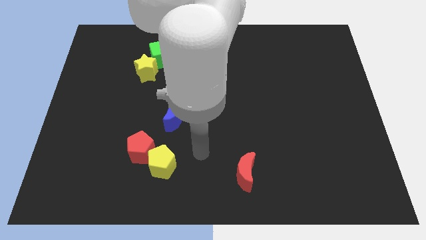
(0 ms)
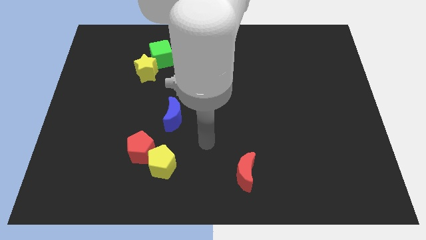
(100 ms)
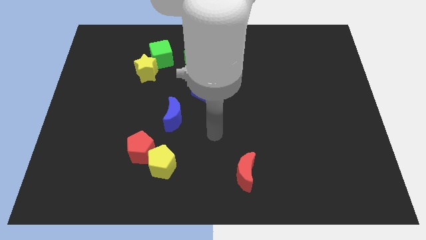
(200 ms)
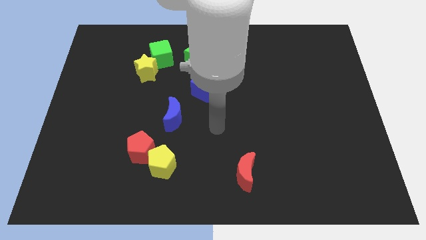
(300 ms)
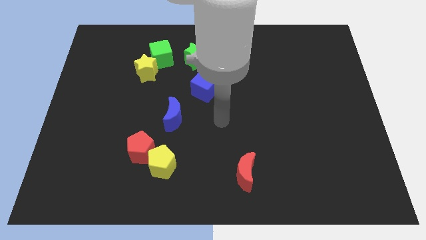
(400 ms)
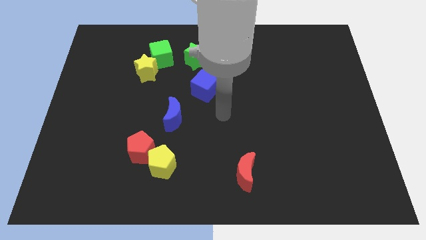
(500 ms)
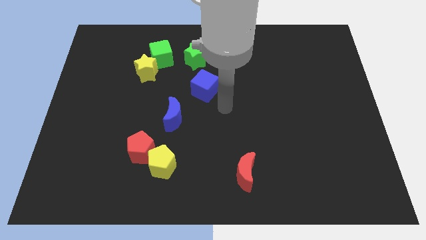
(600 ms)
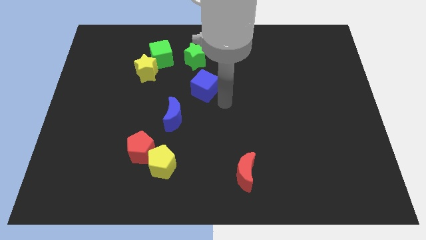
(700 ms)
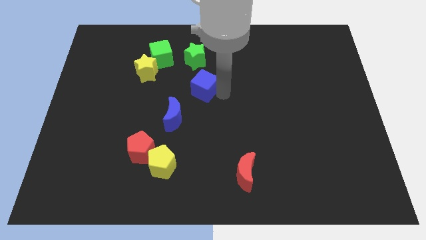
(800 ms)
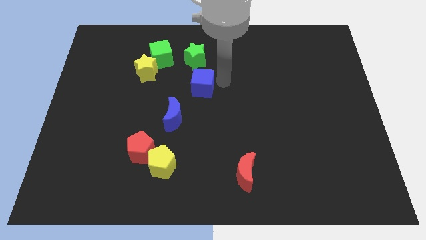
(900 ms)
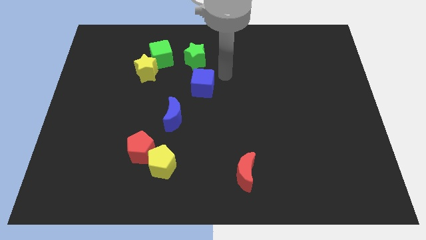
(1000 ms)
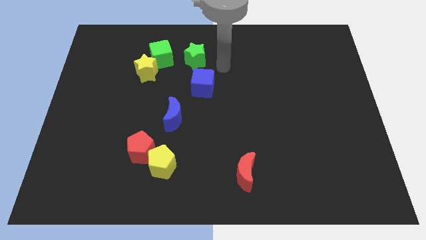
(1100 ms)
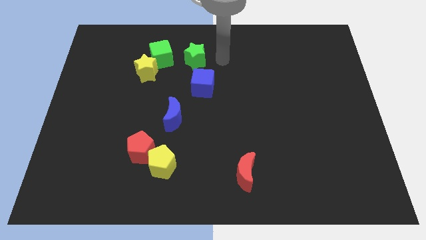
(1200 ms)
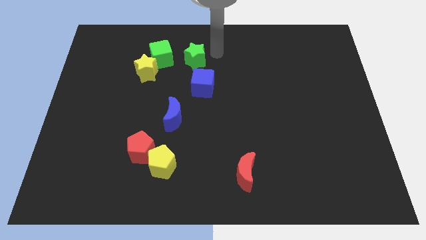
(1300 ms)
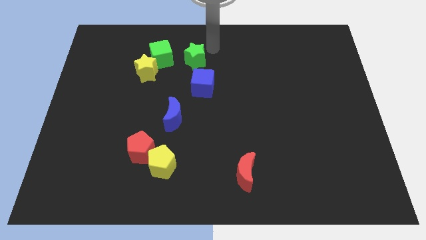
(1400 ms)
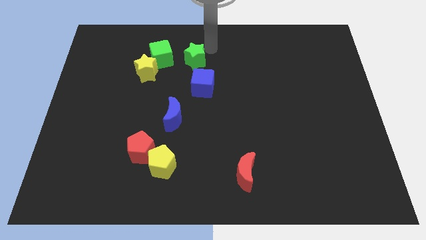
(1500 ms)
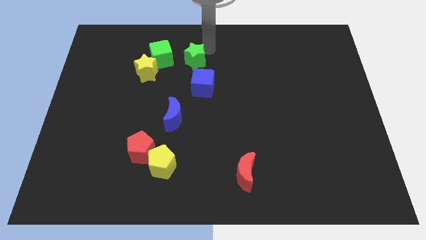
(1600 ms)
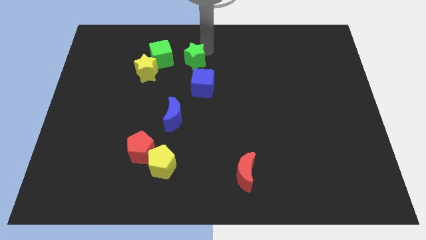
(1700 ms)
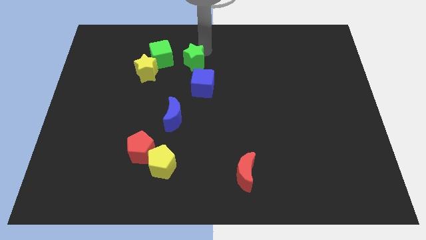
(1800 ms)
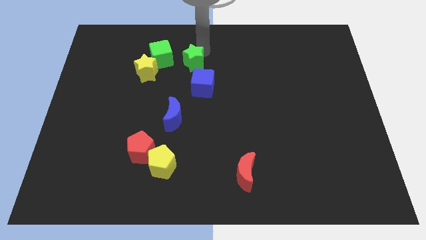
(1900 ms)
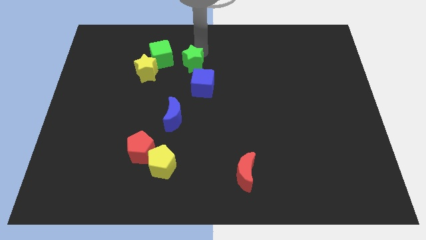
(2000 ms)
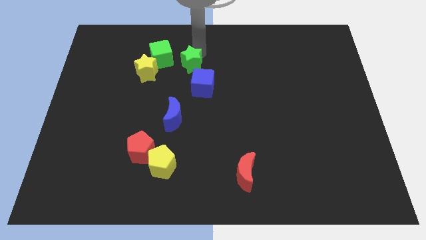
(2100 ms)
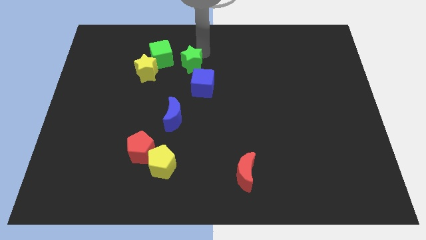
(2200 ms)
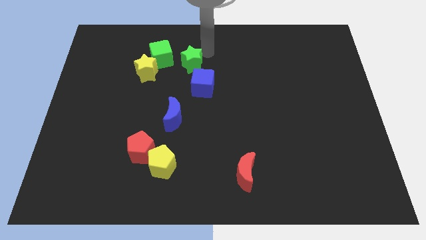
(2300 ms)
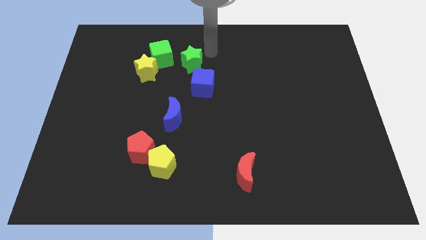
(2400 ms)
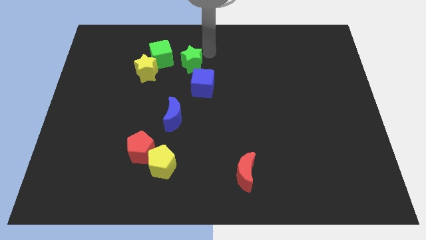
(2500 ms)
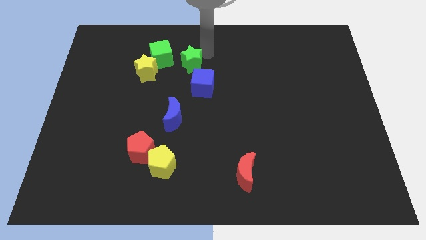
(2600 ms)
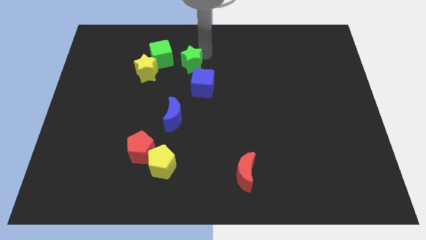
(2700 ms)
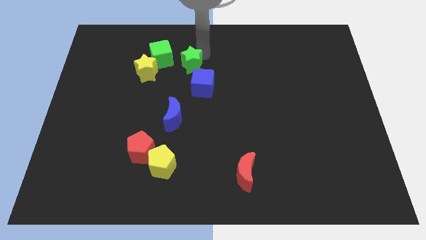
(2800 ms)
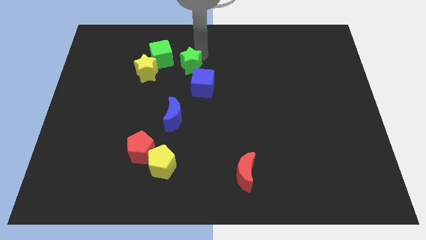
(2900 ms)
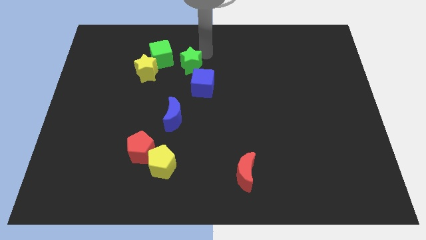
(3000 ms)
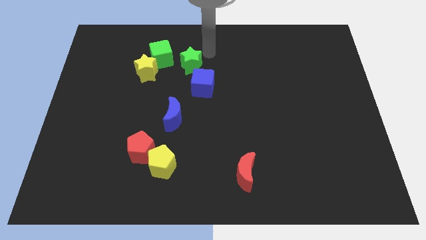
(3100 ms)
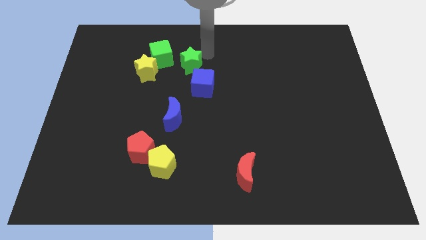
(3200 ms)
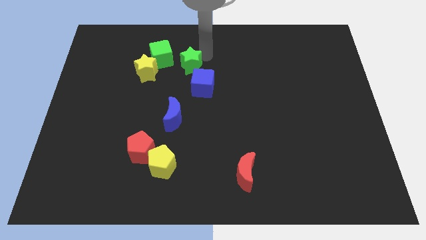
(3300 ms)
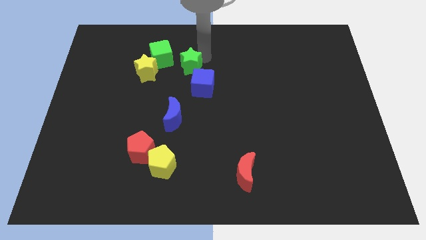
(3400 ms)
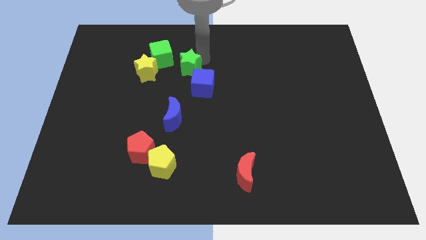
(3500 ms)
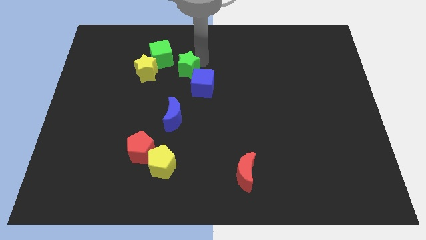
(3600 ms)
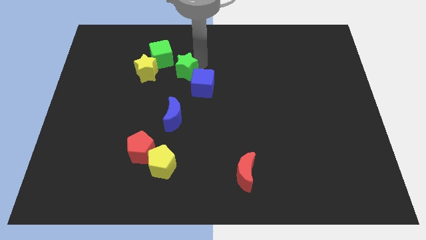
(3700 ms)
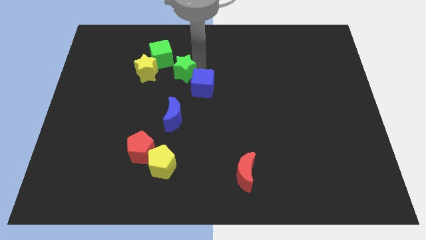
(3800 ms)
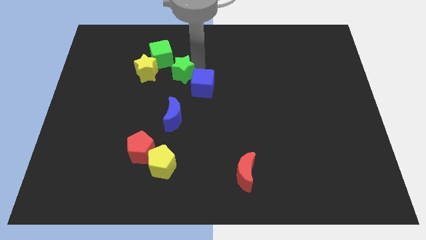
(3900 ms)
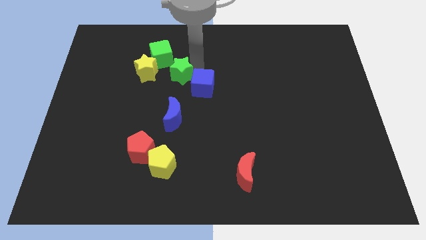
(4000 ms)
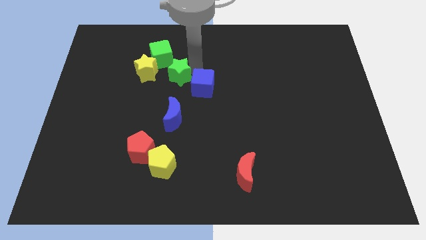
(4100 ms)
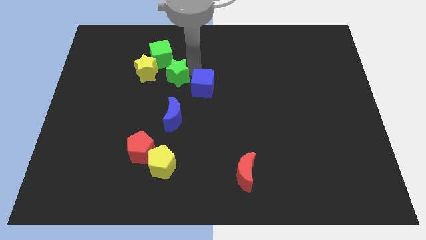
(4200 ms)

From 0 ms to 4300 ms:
slightly push the green star down and then to the left

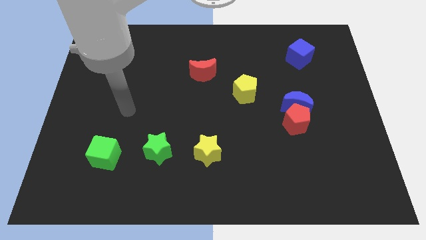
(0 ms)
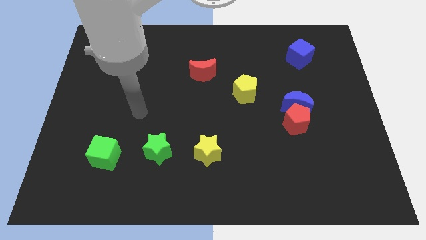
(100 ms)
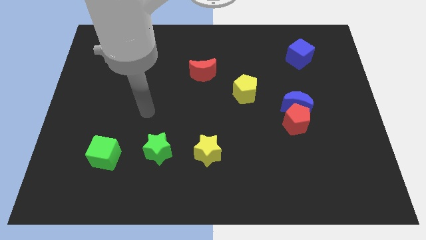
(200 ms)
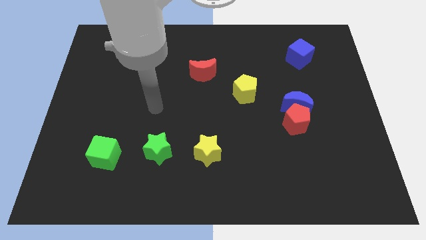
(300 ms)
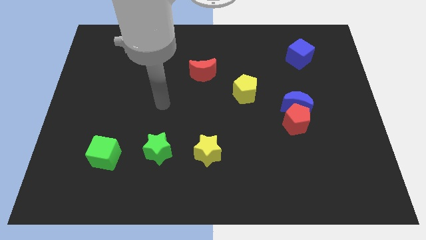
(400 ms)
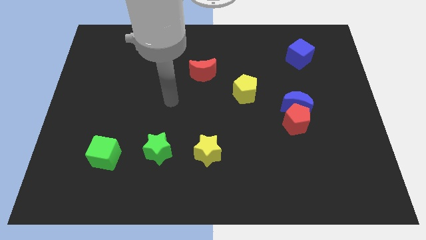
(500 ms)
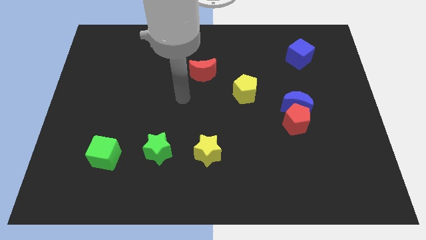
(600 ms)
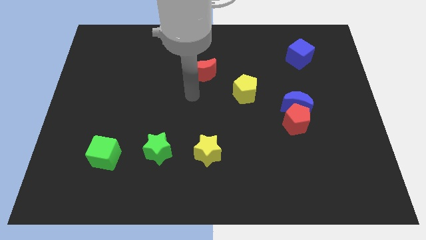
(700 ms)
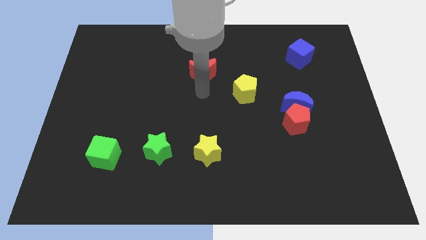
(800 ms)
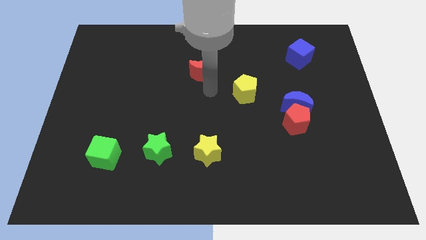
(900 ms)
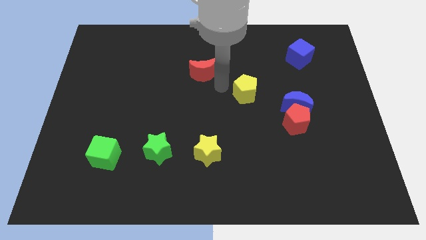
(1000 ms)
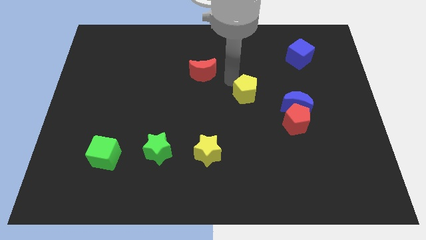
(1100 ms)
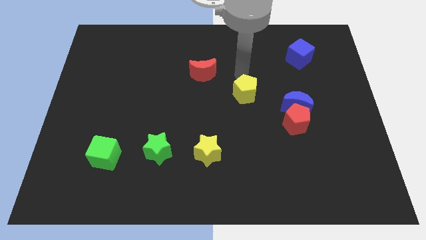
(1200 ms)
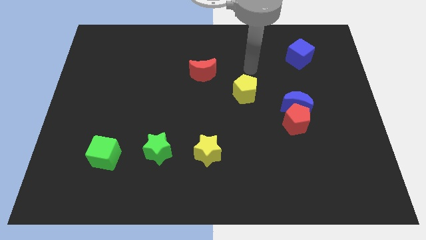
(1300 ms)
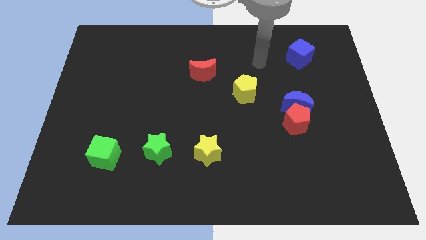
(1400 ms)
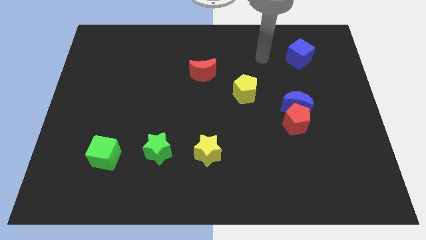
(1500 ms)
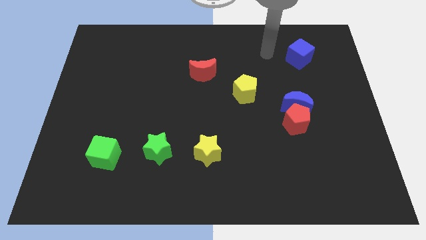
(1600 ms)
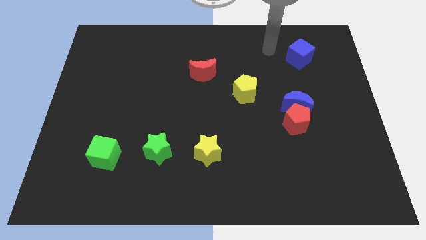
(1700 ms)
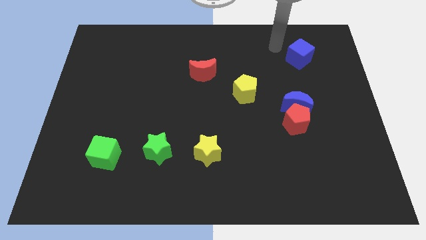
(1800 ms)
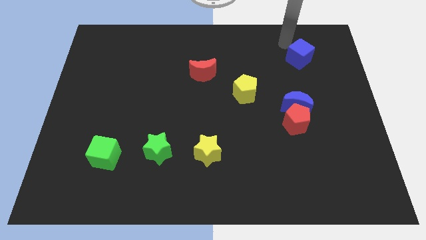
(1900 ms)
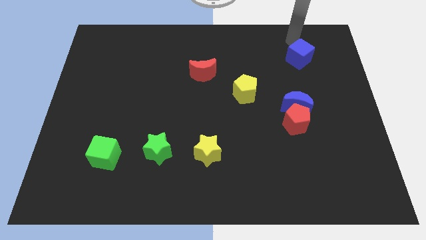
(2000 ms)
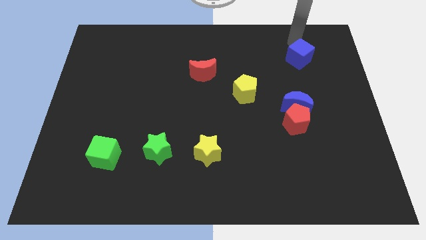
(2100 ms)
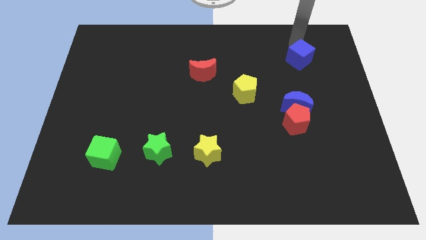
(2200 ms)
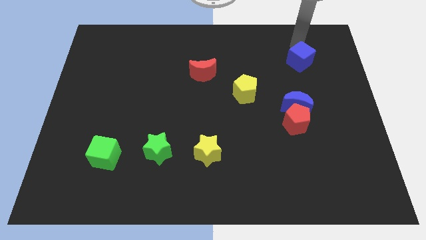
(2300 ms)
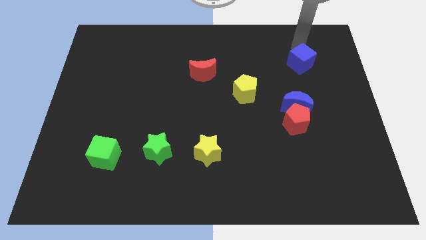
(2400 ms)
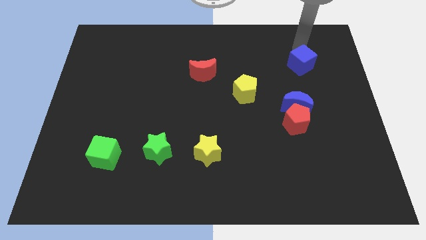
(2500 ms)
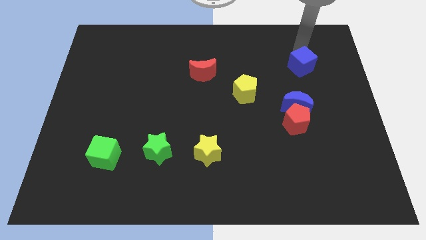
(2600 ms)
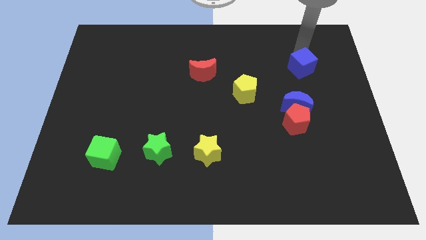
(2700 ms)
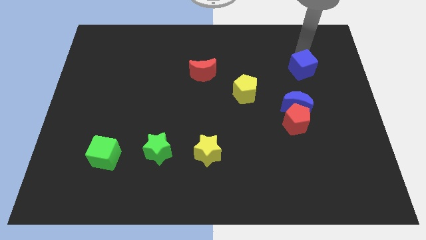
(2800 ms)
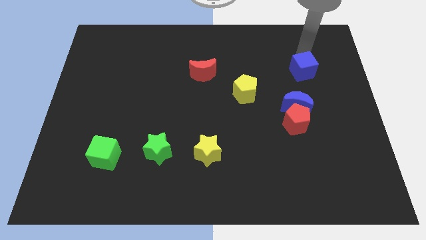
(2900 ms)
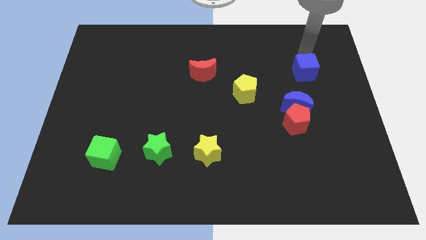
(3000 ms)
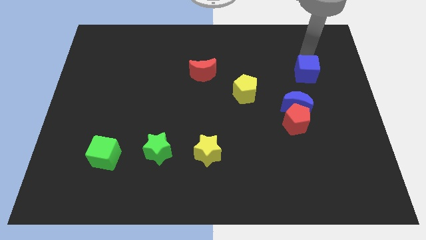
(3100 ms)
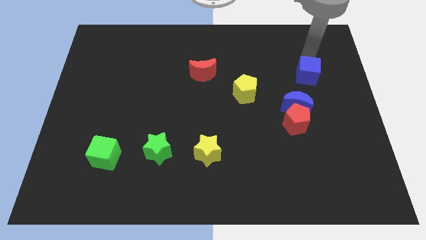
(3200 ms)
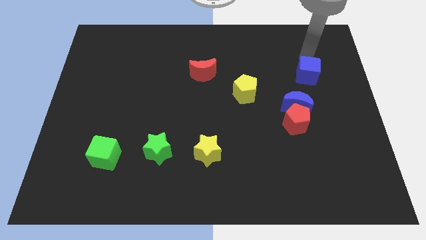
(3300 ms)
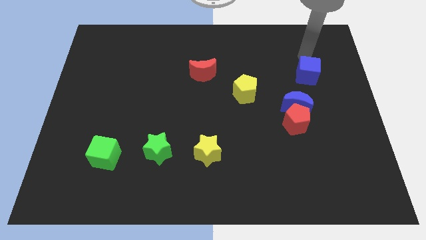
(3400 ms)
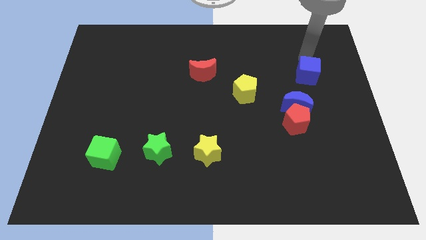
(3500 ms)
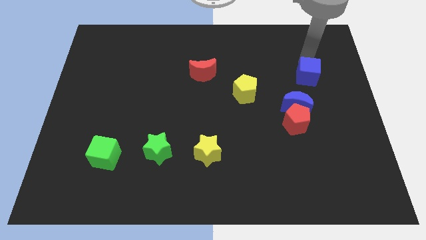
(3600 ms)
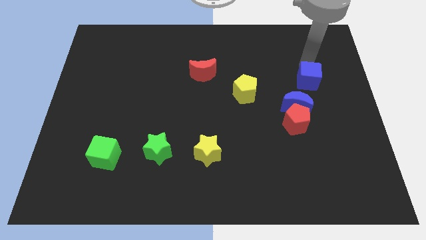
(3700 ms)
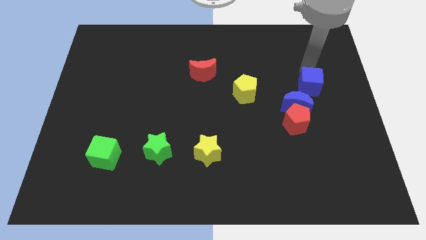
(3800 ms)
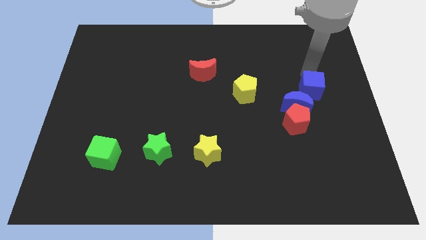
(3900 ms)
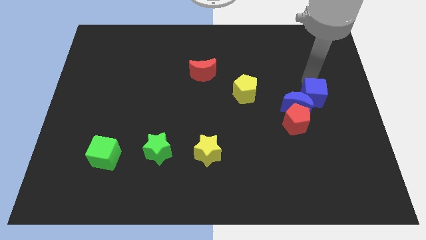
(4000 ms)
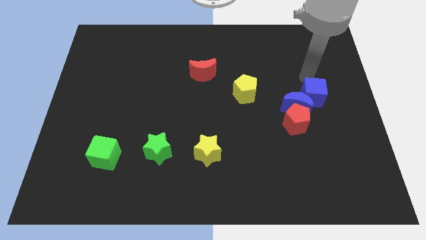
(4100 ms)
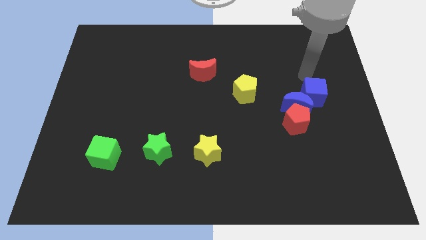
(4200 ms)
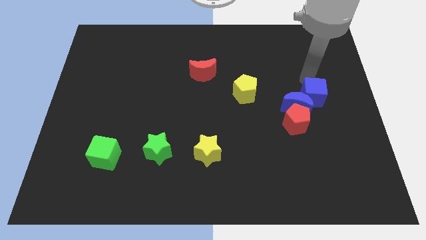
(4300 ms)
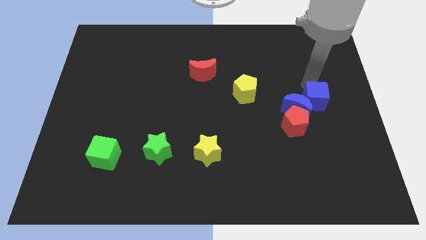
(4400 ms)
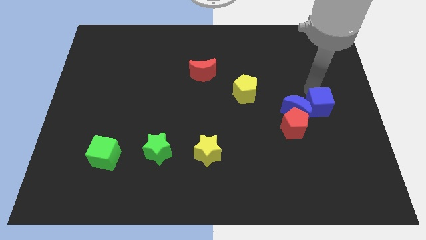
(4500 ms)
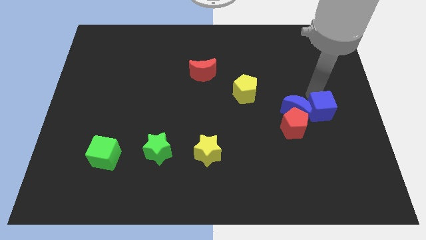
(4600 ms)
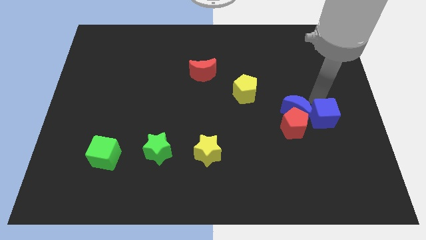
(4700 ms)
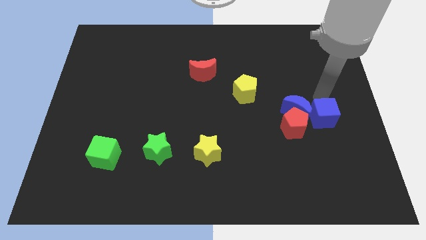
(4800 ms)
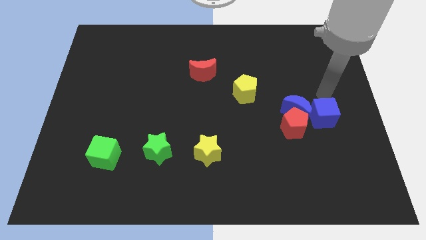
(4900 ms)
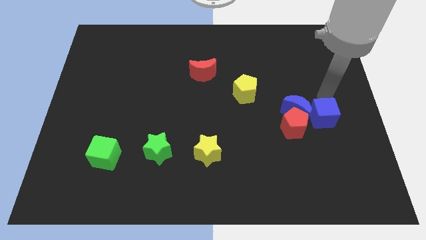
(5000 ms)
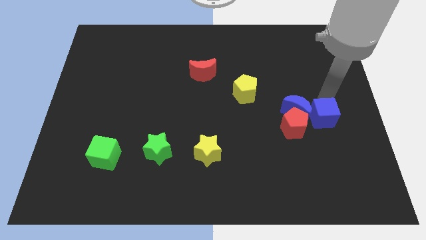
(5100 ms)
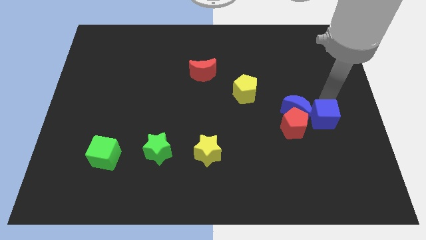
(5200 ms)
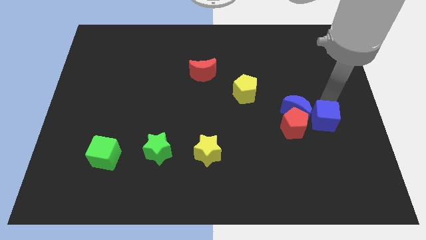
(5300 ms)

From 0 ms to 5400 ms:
push the blue cube downwards
